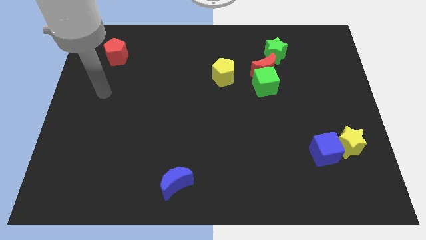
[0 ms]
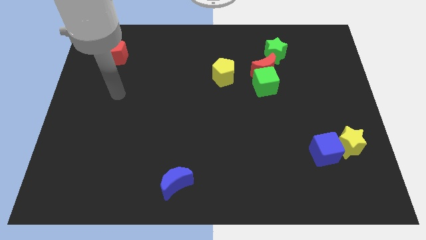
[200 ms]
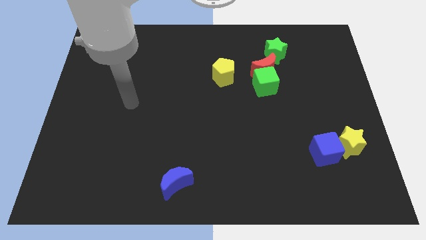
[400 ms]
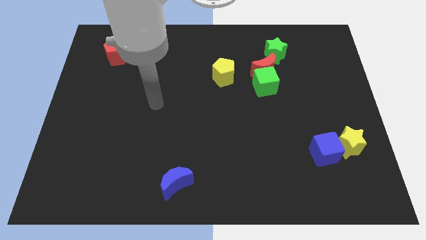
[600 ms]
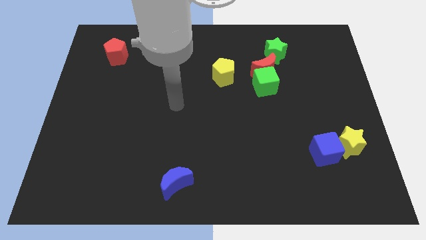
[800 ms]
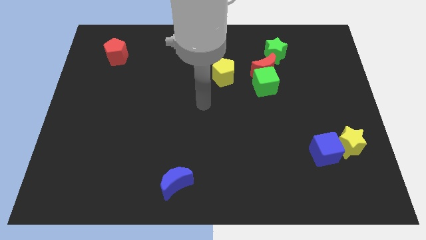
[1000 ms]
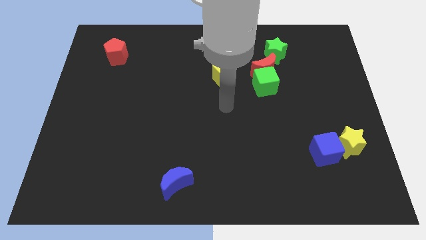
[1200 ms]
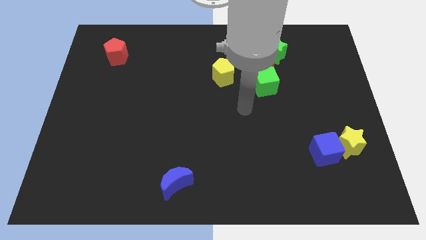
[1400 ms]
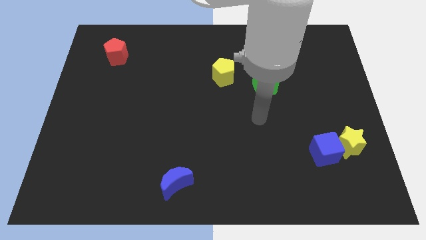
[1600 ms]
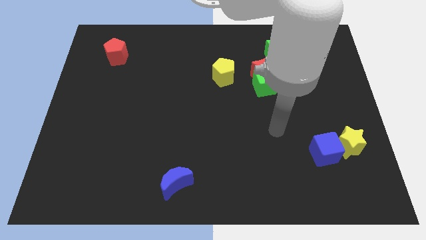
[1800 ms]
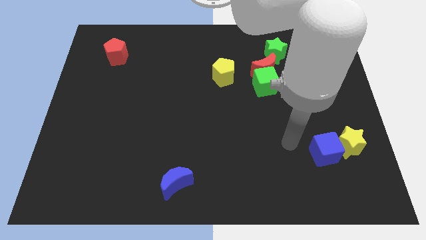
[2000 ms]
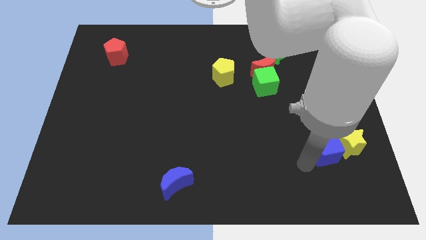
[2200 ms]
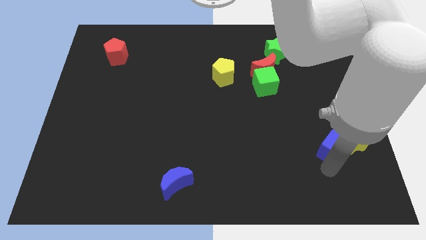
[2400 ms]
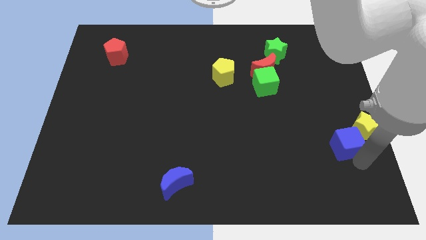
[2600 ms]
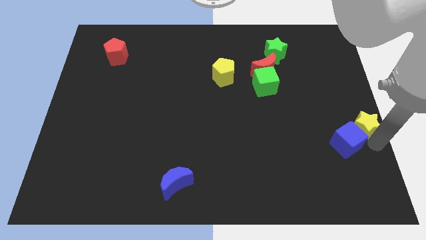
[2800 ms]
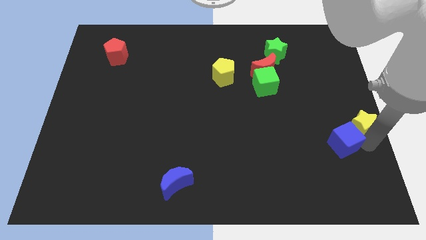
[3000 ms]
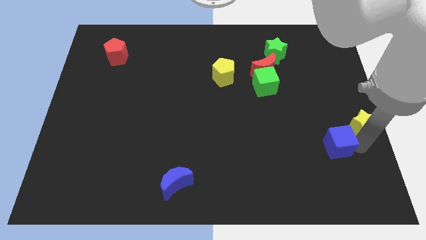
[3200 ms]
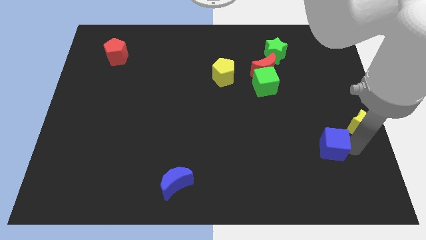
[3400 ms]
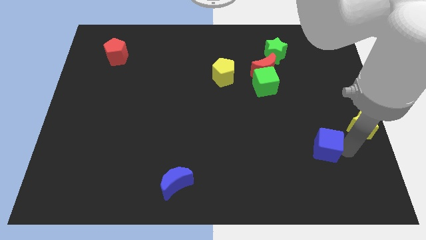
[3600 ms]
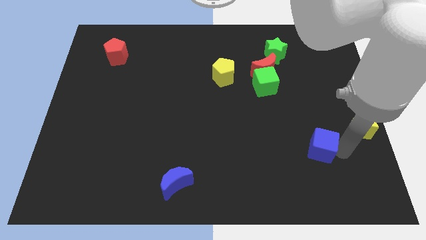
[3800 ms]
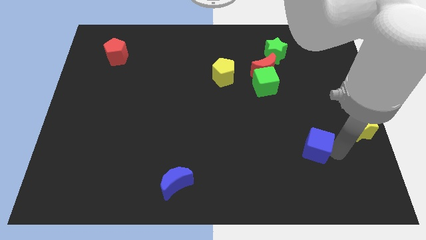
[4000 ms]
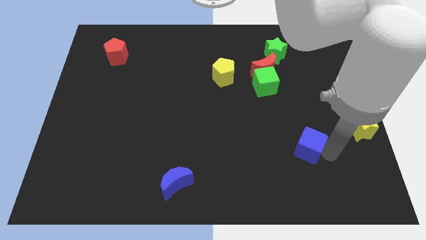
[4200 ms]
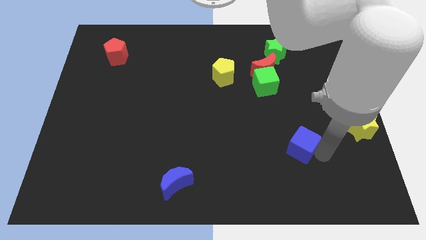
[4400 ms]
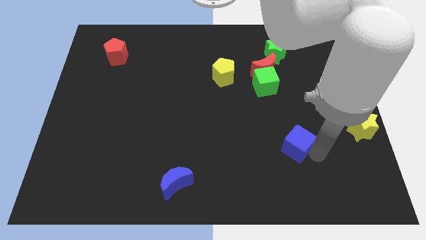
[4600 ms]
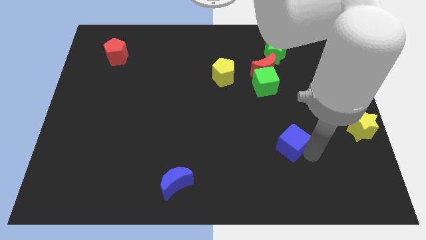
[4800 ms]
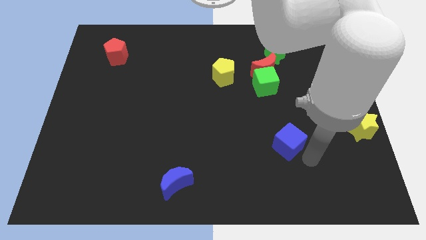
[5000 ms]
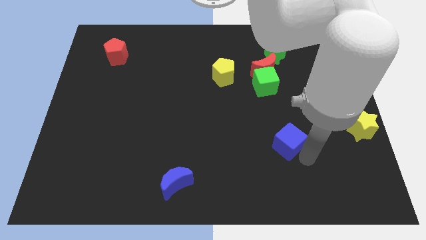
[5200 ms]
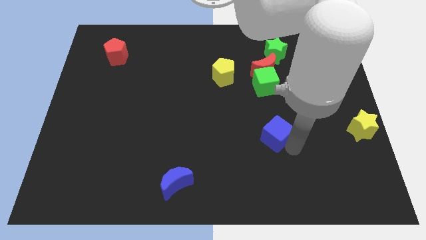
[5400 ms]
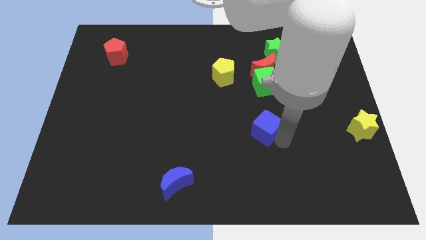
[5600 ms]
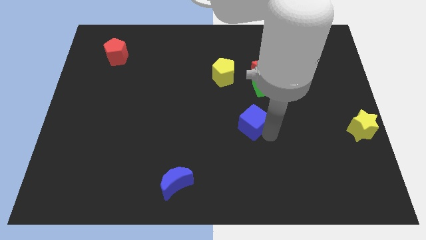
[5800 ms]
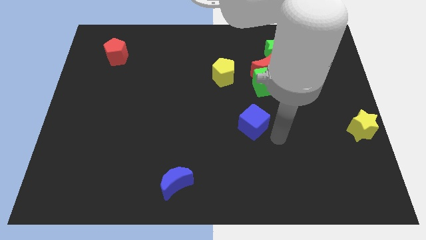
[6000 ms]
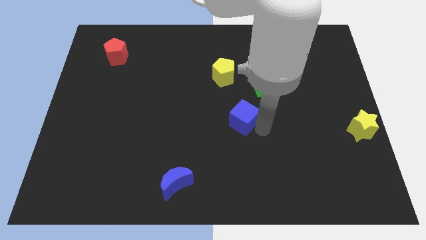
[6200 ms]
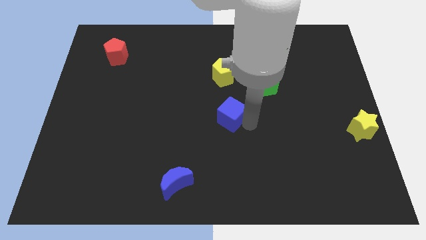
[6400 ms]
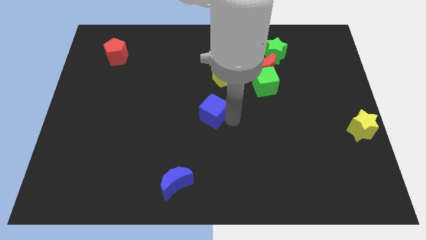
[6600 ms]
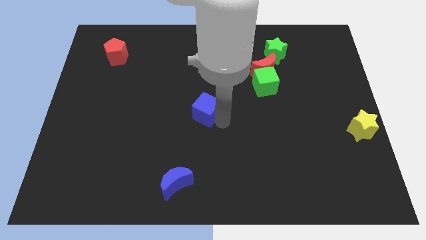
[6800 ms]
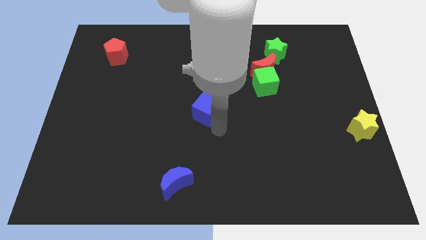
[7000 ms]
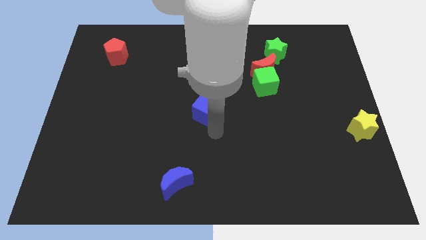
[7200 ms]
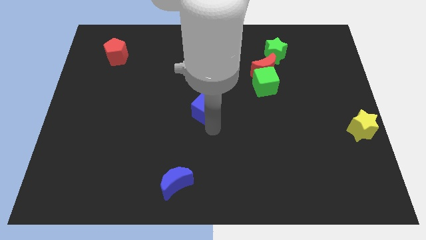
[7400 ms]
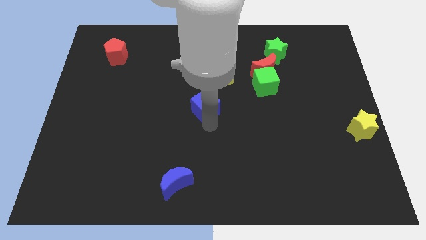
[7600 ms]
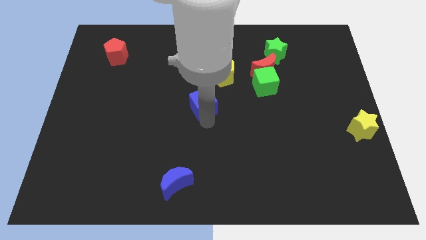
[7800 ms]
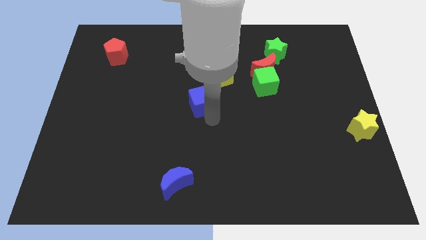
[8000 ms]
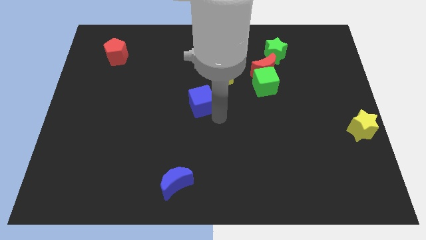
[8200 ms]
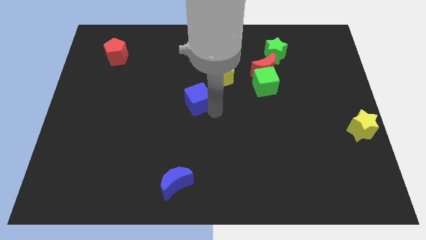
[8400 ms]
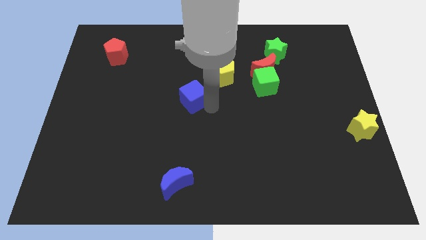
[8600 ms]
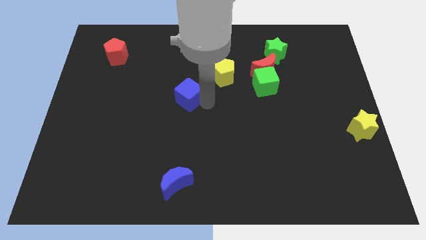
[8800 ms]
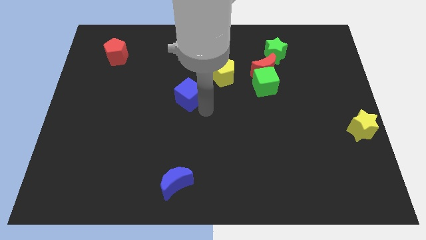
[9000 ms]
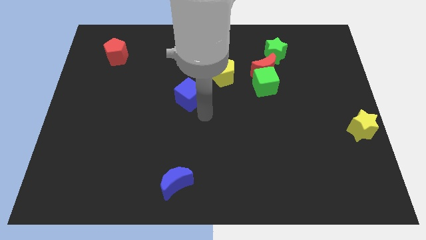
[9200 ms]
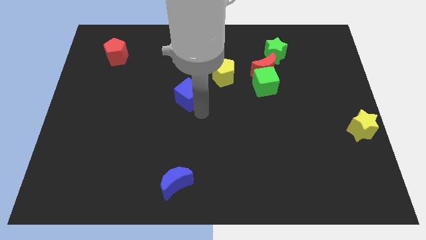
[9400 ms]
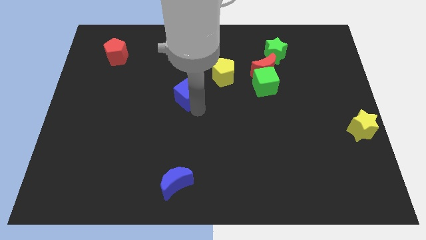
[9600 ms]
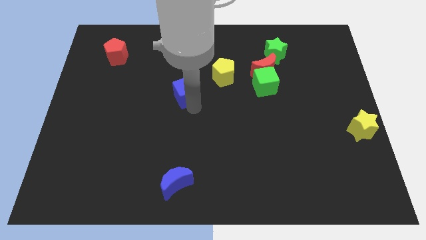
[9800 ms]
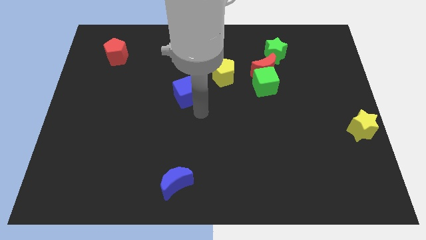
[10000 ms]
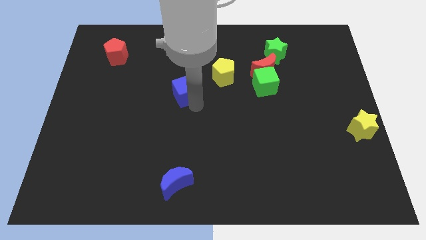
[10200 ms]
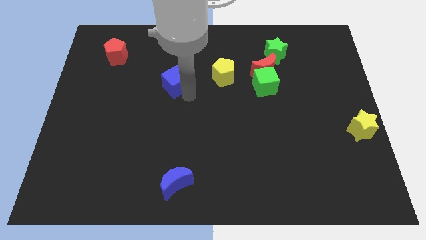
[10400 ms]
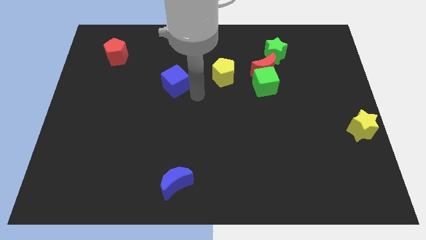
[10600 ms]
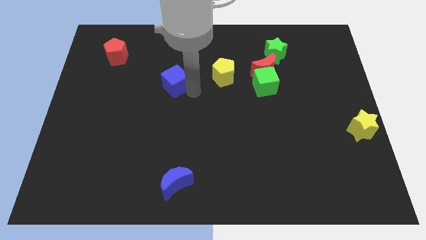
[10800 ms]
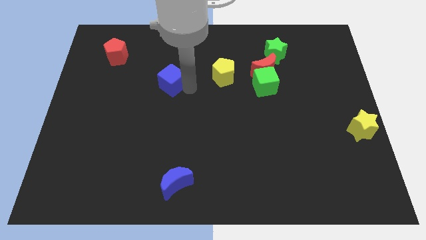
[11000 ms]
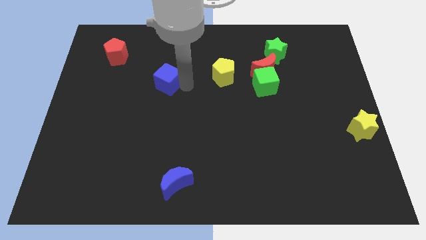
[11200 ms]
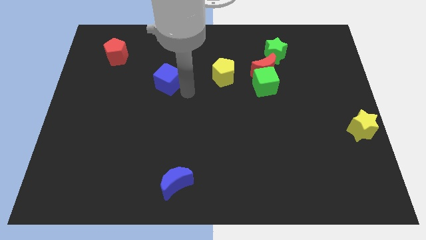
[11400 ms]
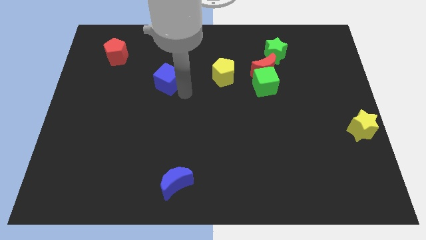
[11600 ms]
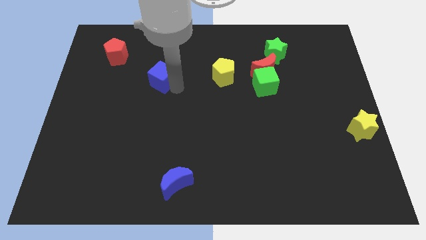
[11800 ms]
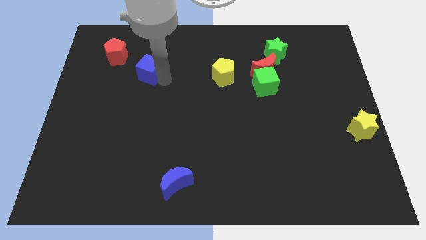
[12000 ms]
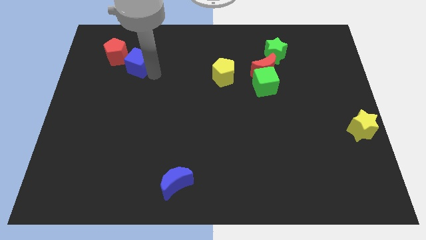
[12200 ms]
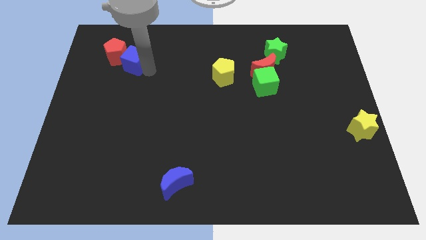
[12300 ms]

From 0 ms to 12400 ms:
put the blue cube to the red pentagon
